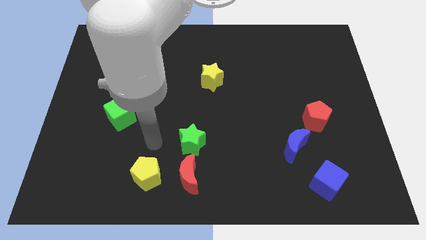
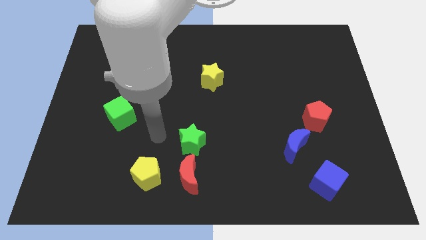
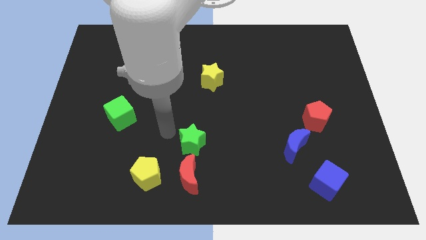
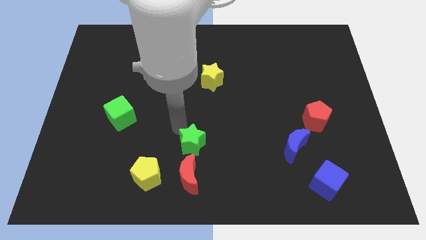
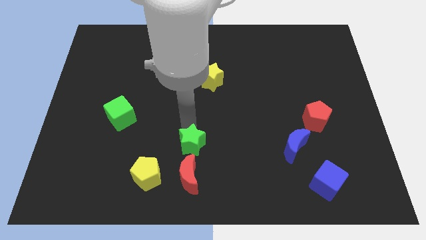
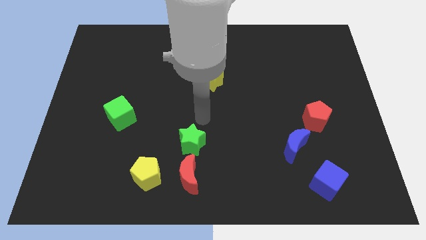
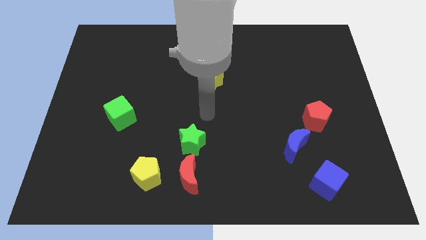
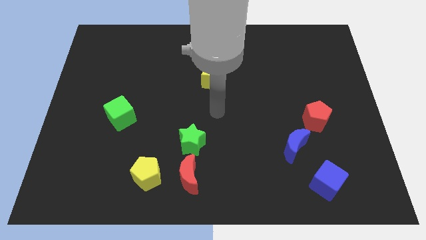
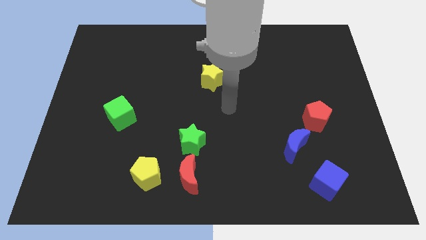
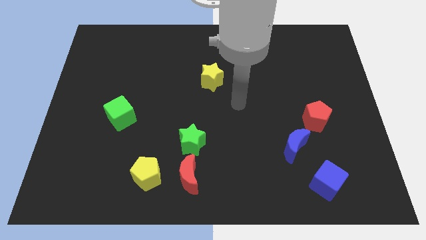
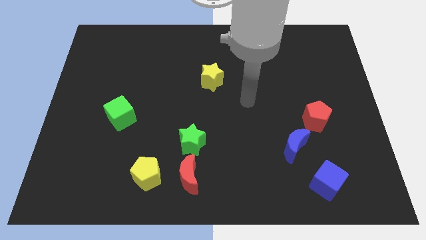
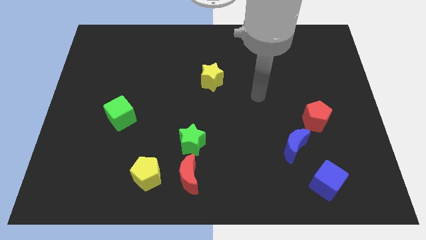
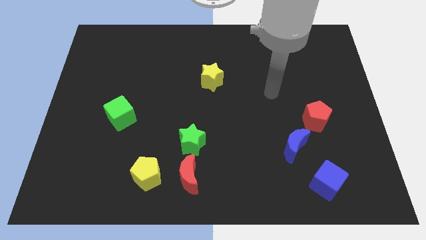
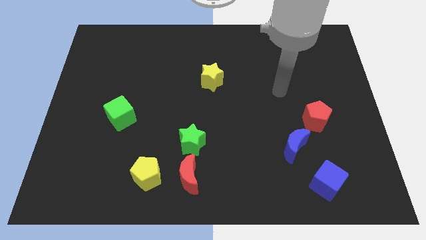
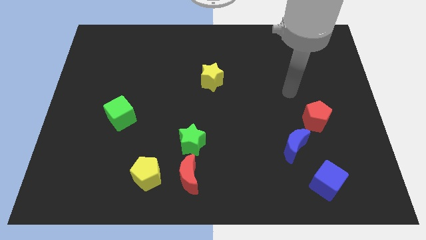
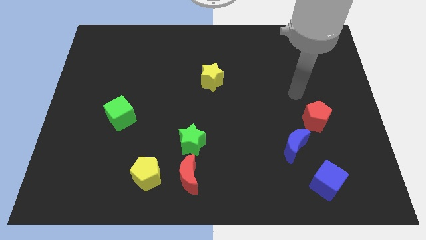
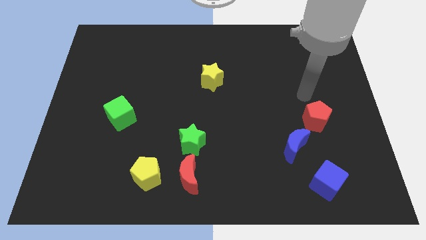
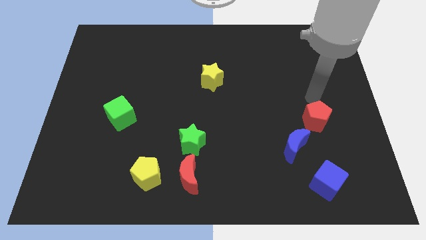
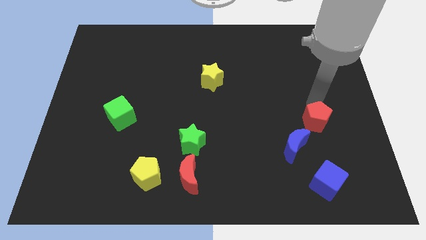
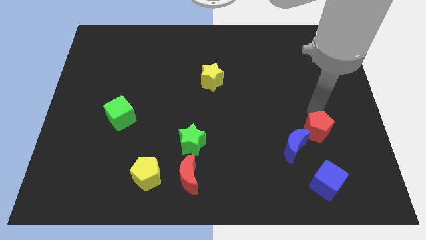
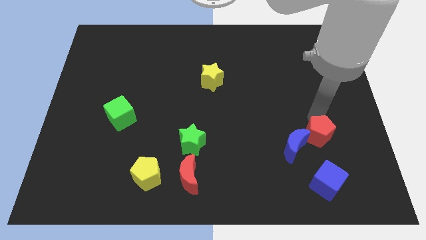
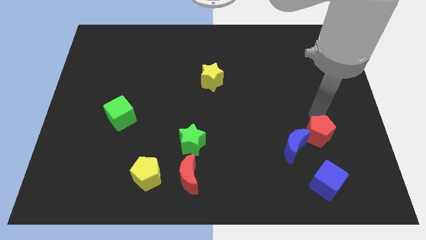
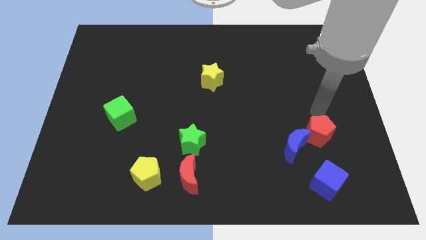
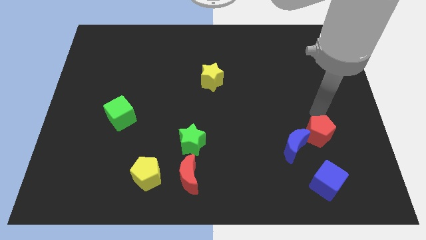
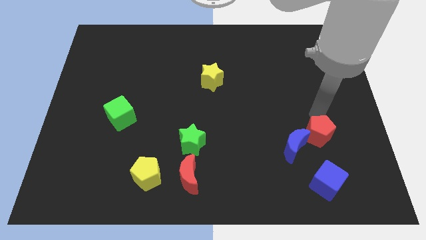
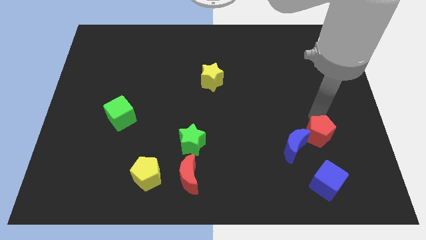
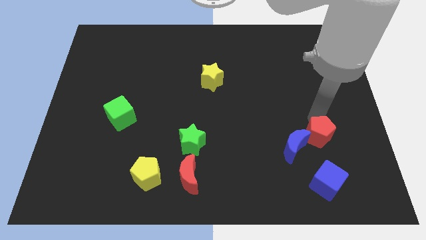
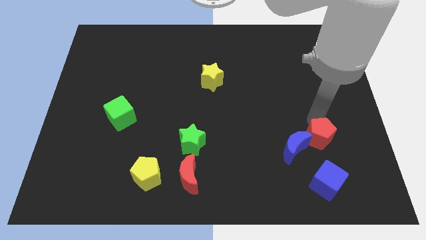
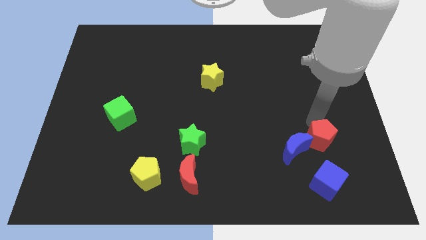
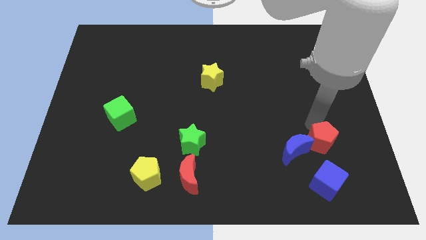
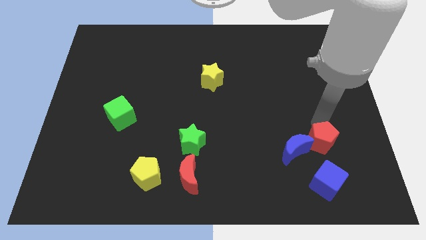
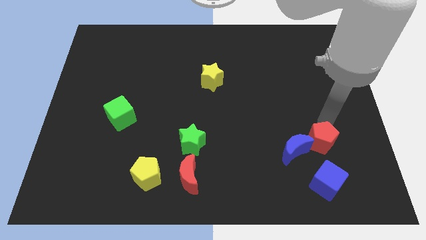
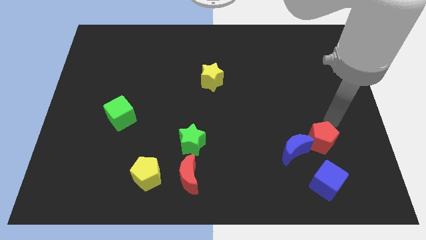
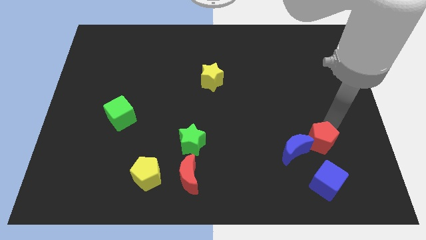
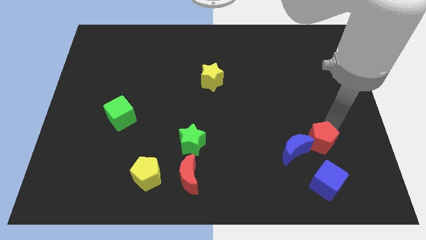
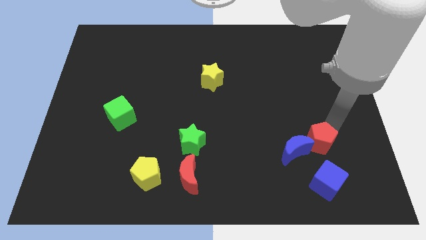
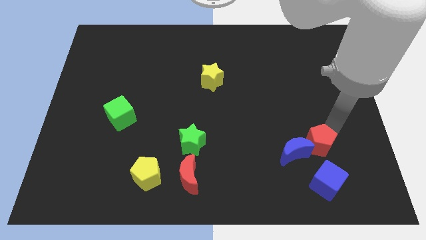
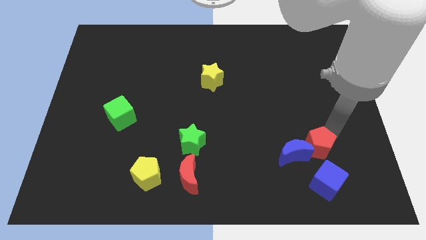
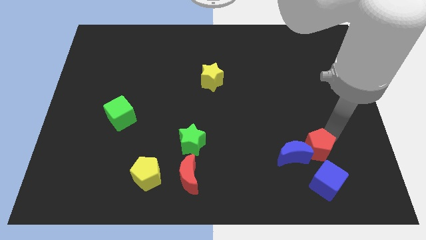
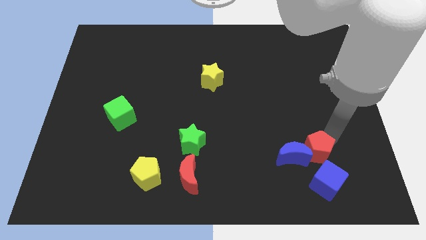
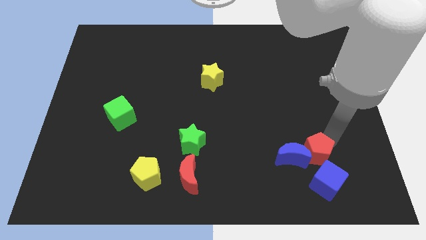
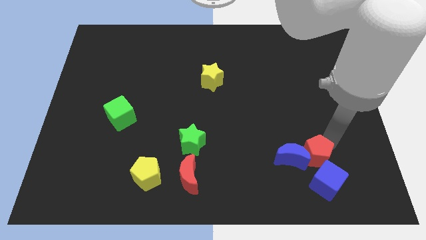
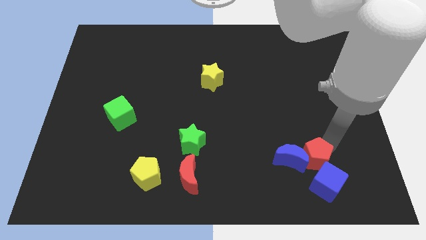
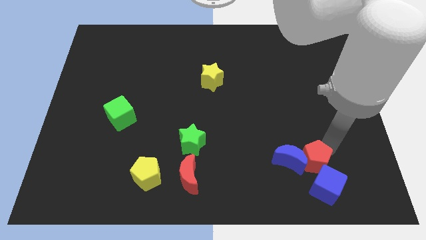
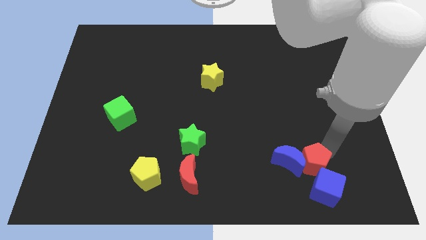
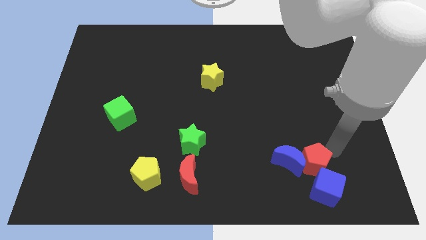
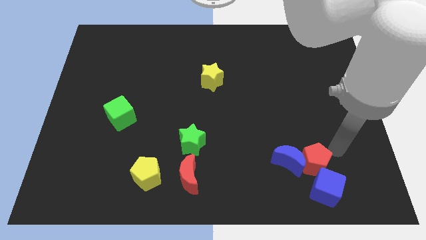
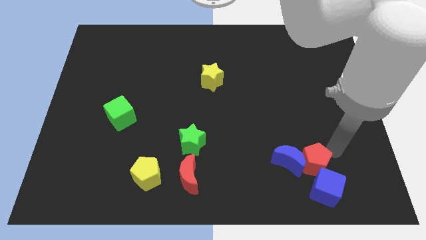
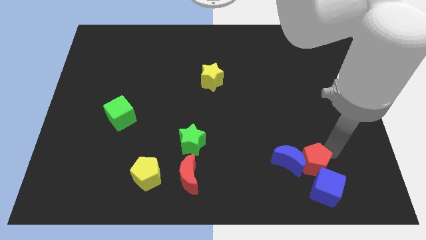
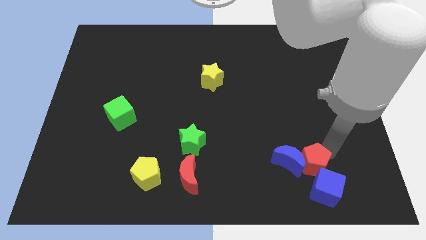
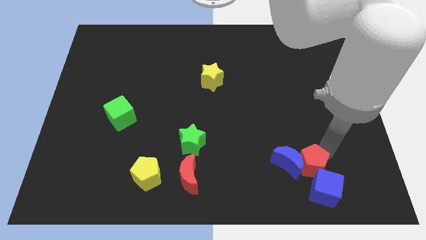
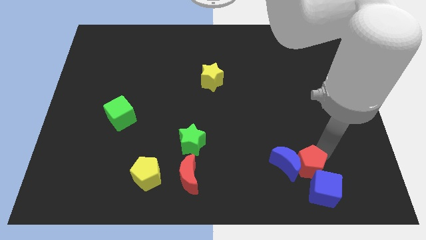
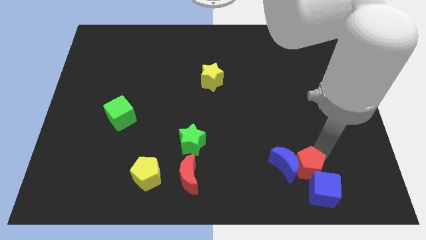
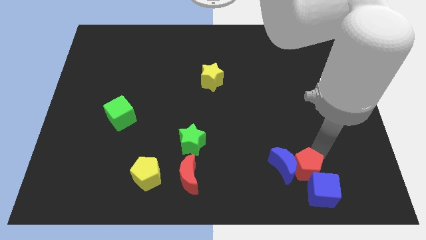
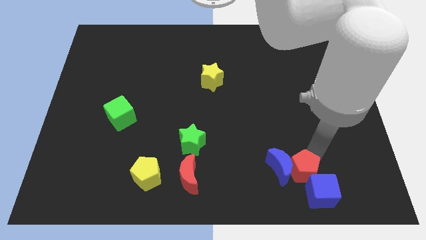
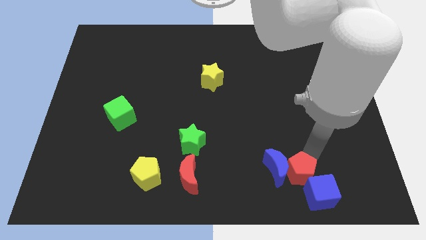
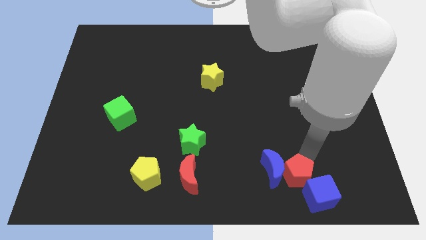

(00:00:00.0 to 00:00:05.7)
push the red pentagon to the left side of the blue cube

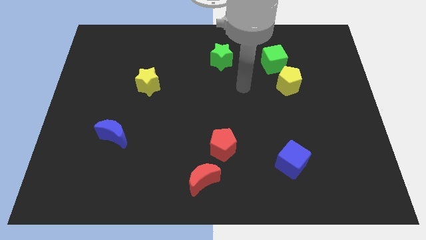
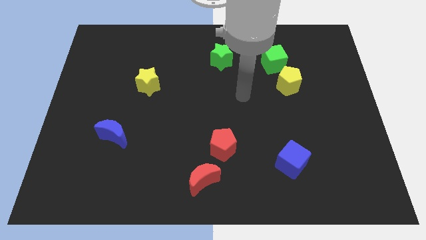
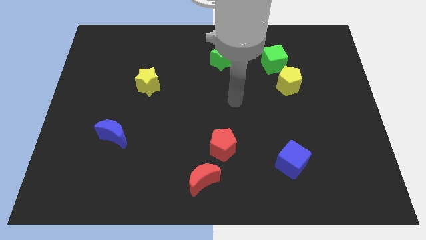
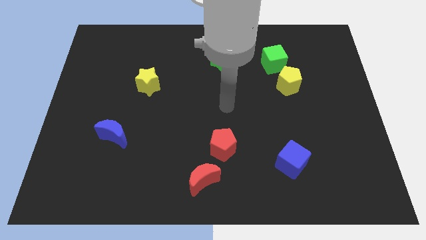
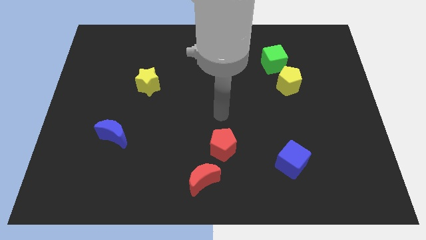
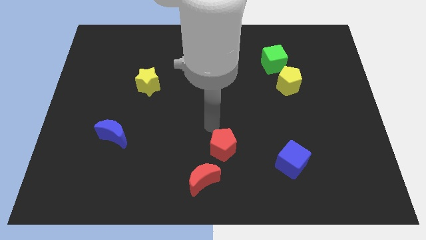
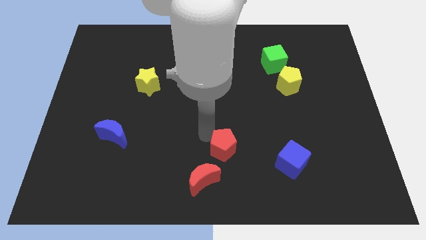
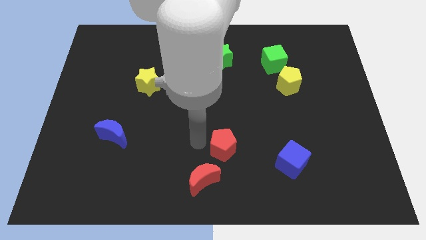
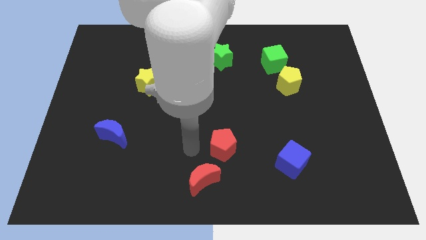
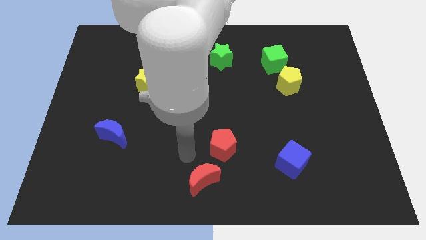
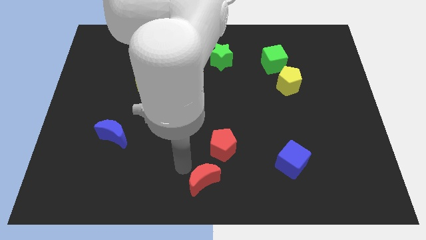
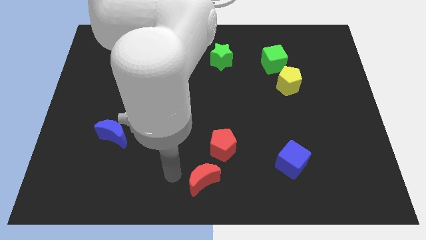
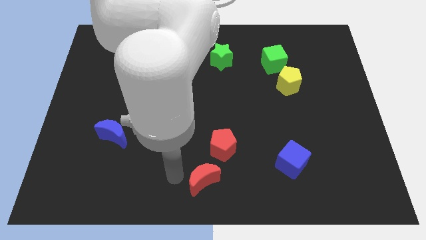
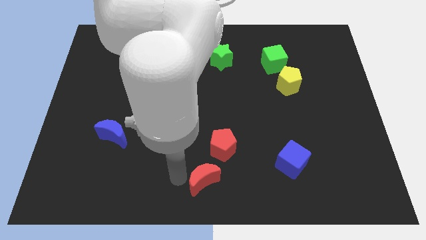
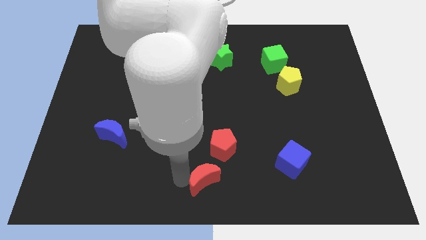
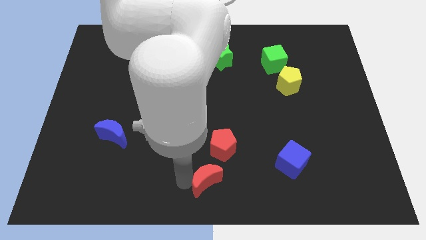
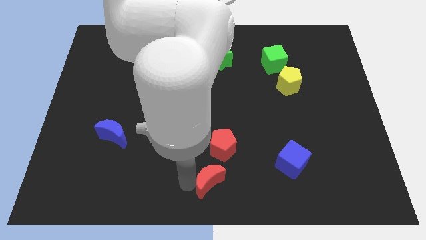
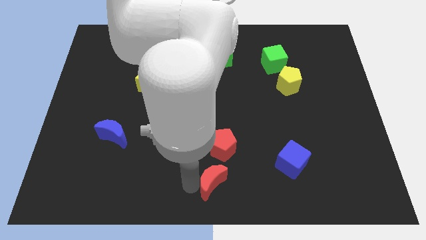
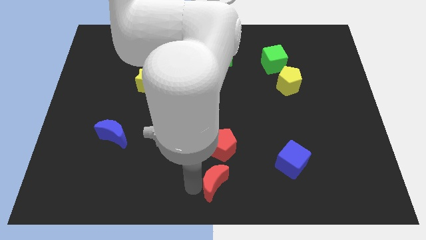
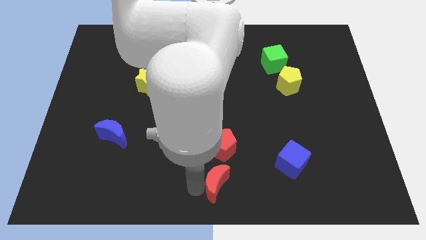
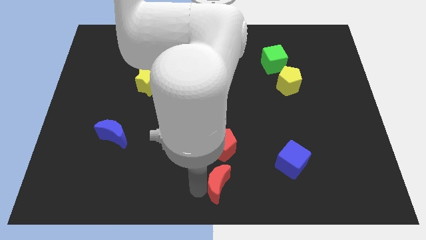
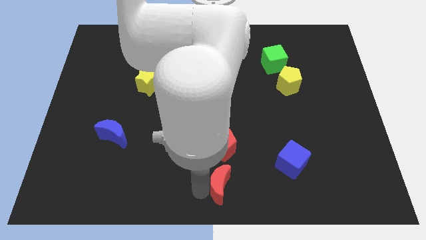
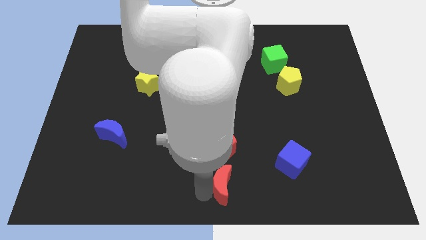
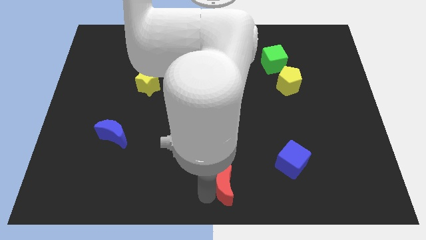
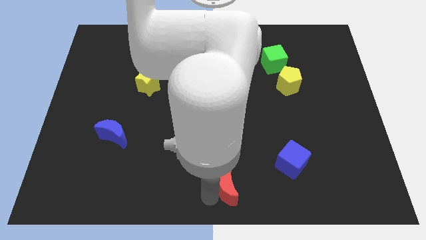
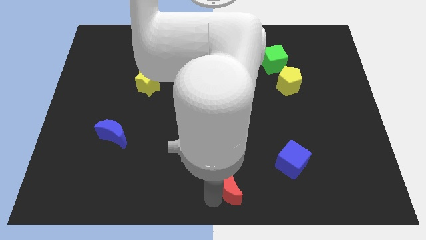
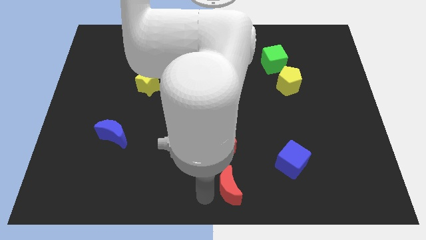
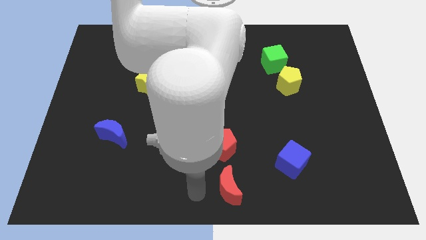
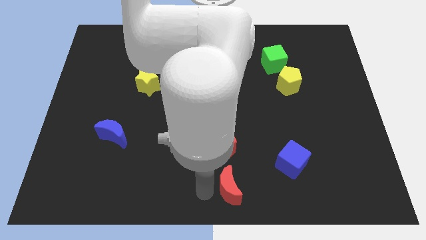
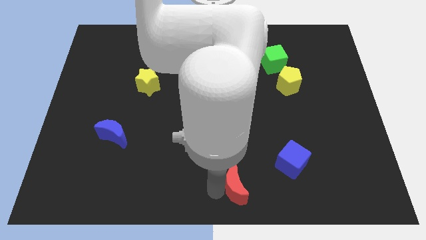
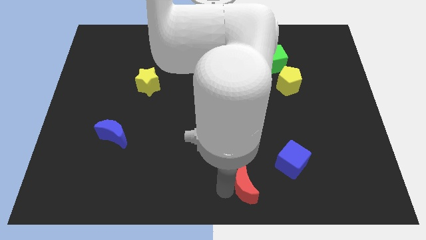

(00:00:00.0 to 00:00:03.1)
move the red moon to the bottom left side of the blue cube
